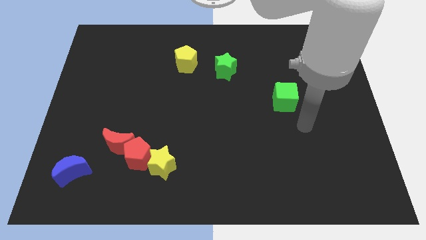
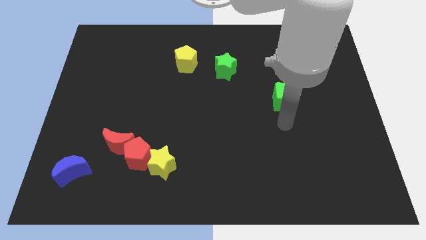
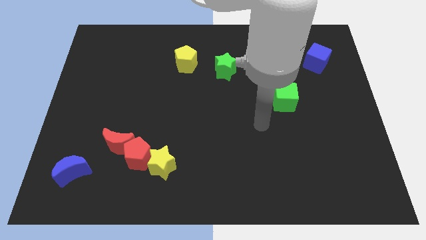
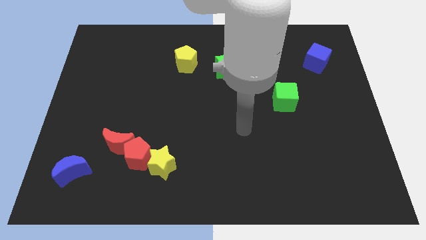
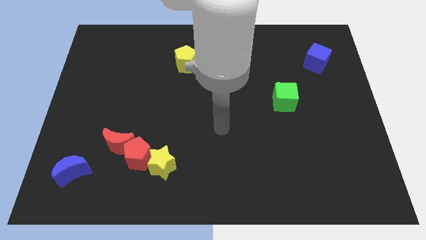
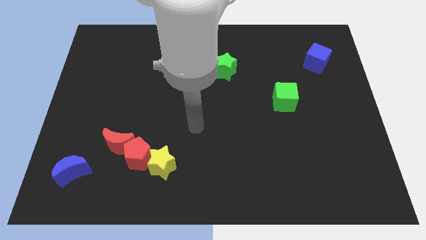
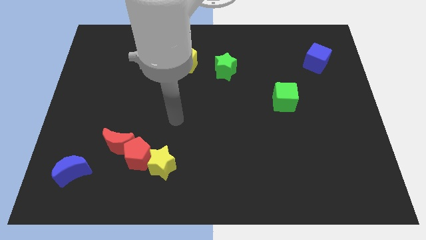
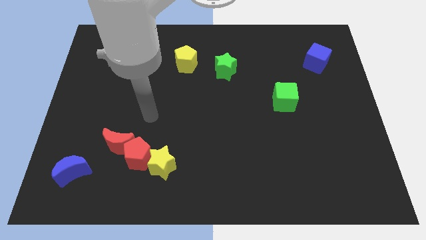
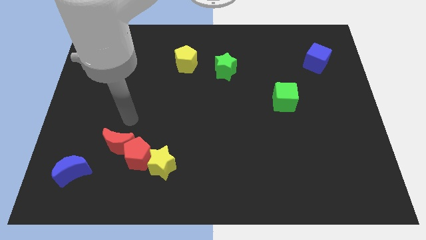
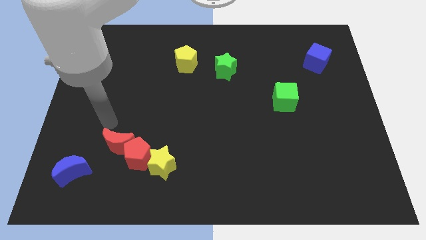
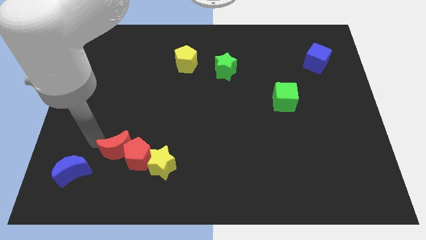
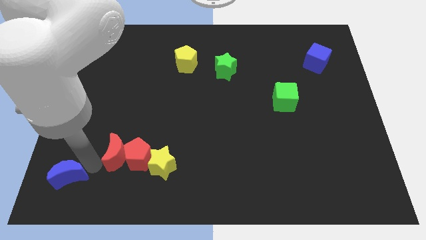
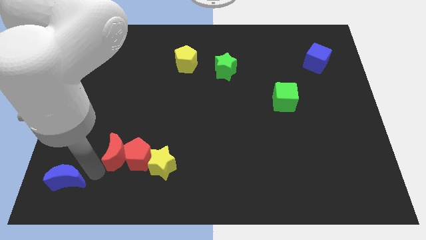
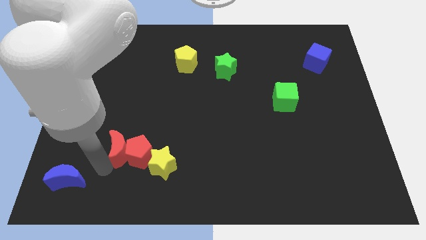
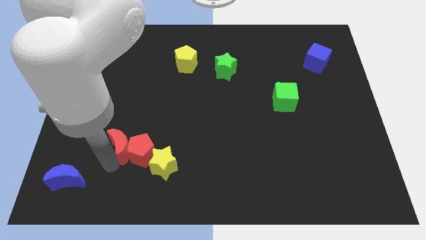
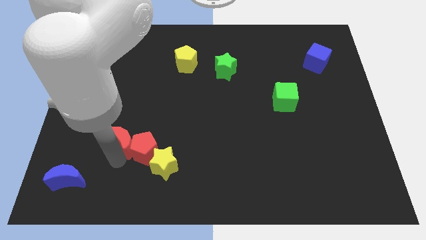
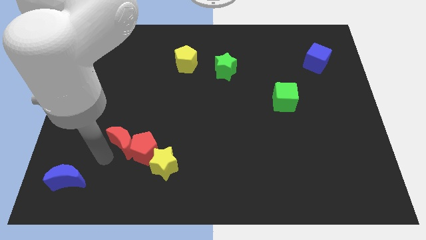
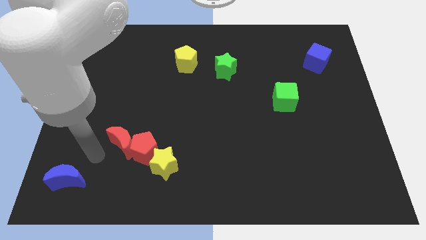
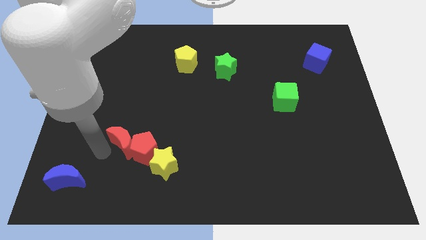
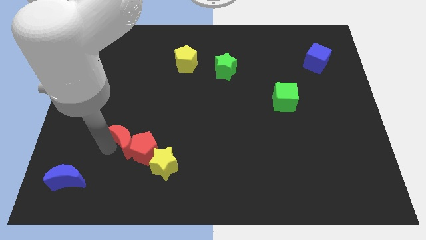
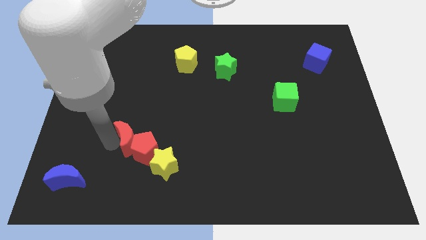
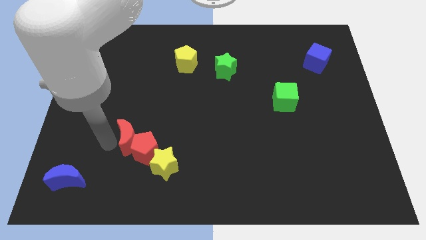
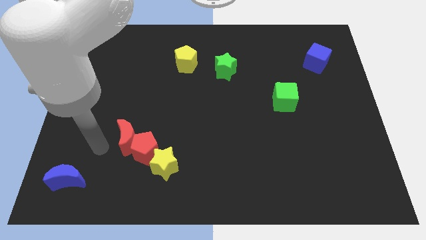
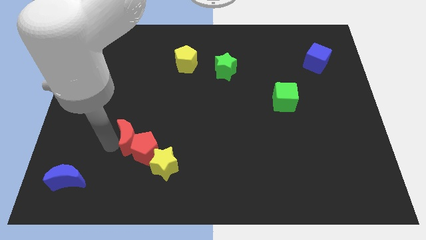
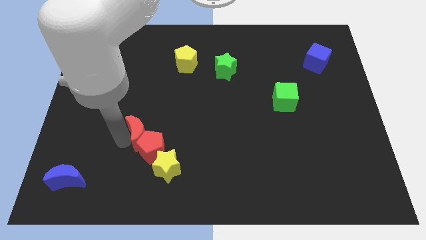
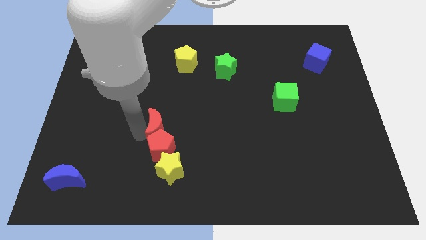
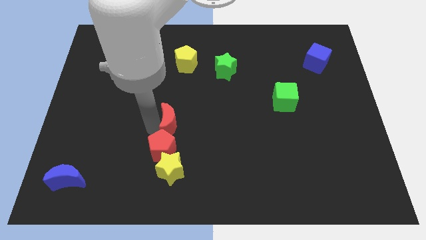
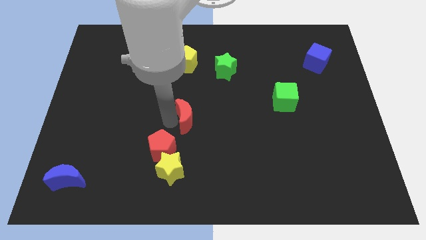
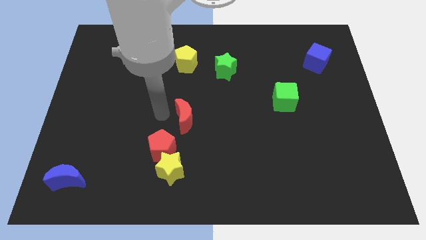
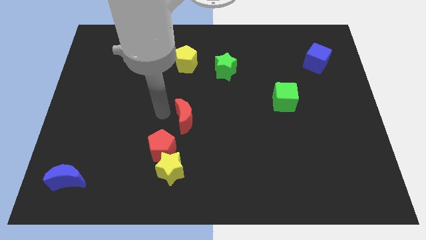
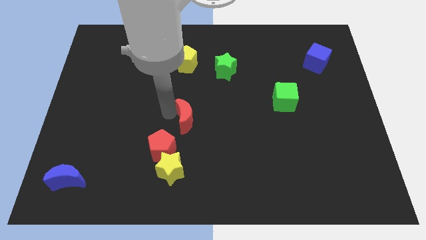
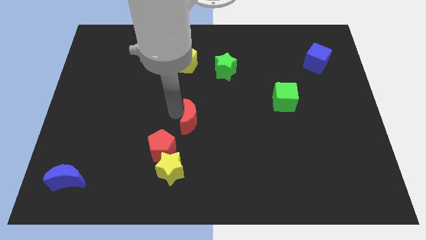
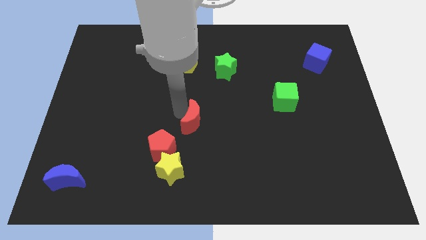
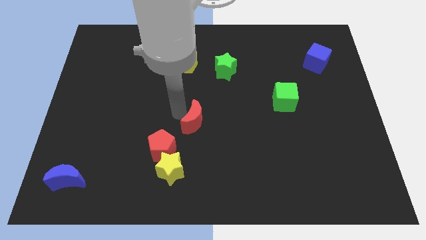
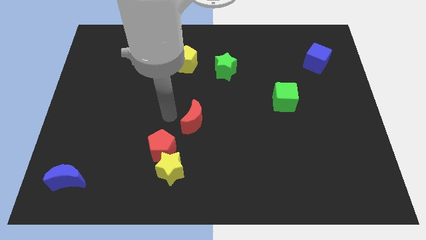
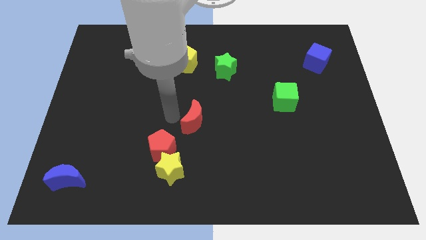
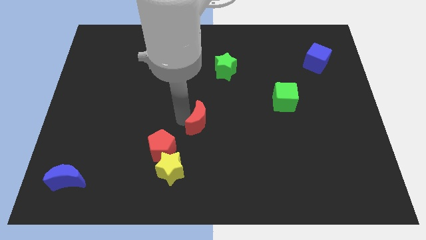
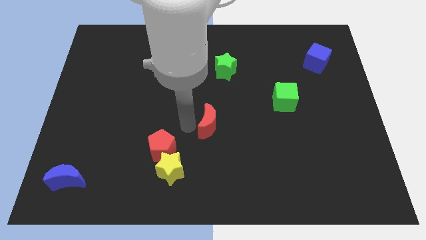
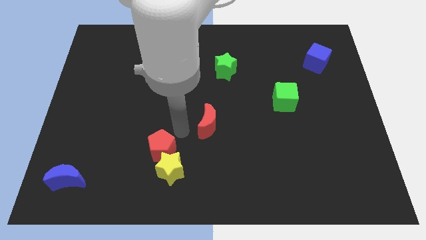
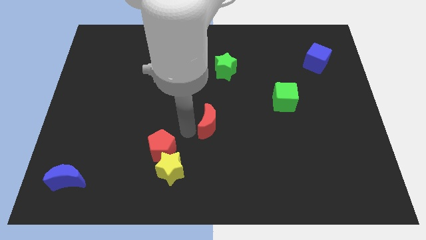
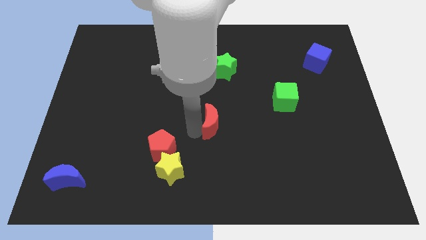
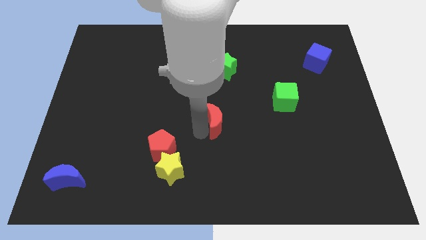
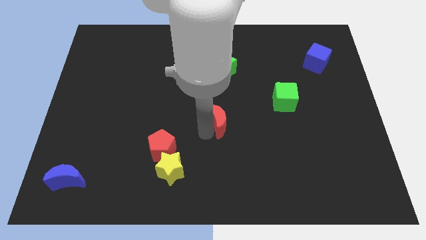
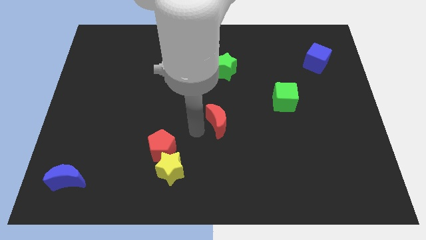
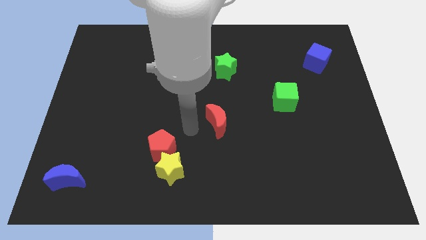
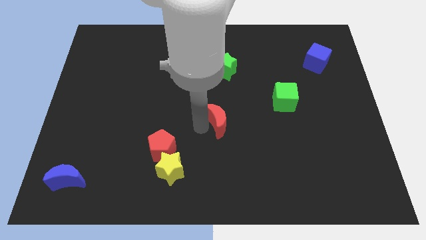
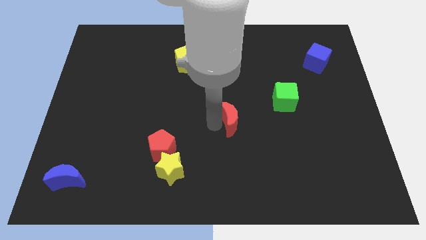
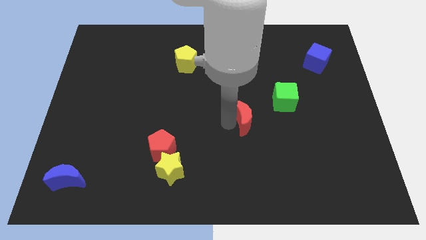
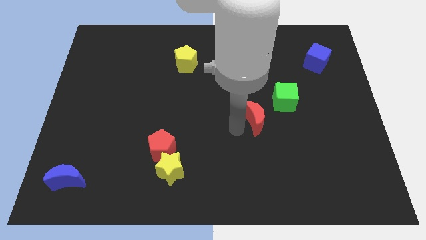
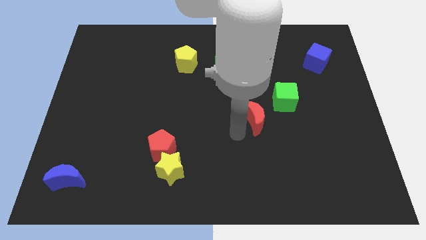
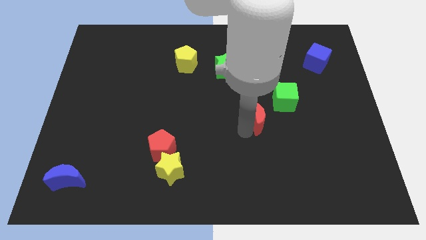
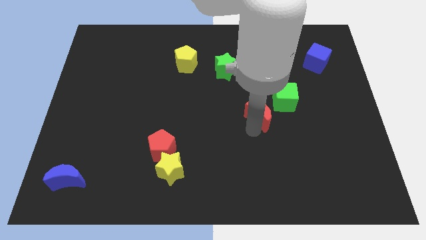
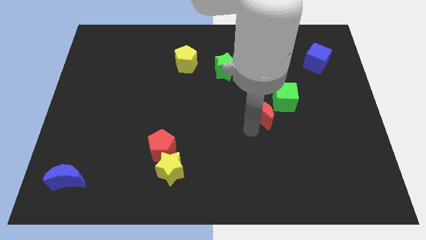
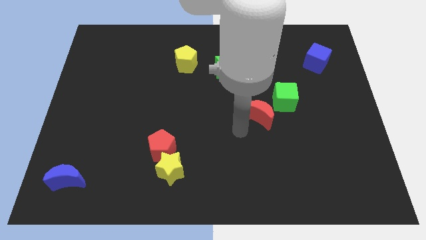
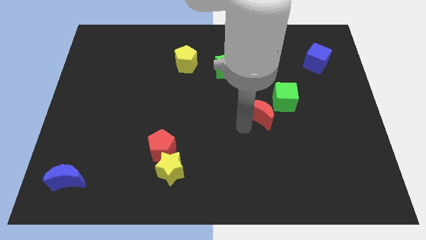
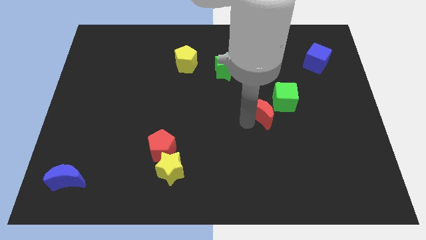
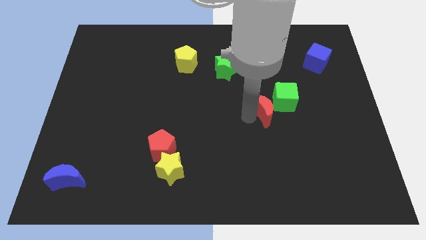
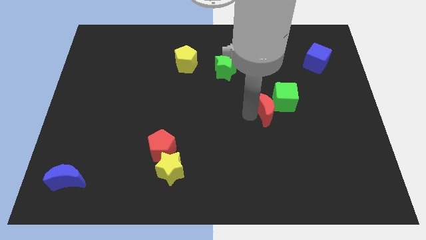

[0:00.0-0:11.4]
push the red moon to the green cube

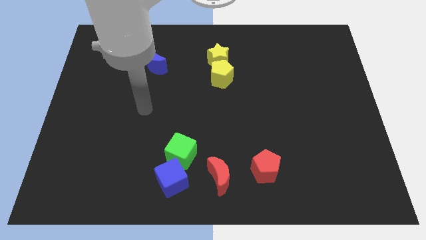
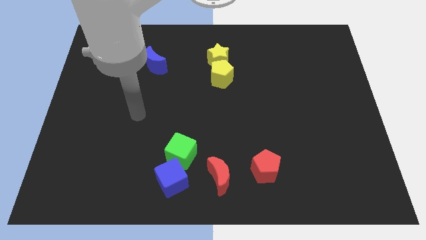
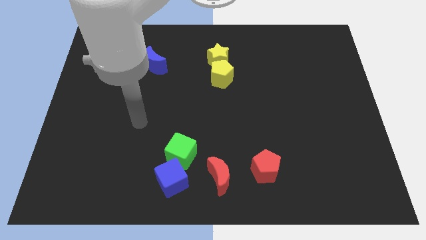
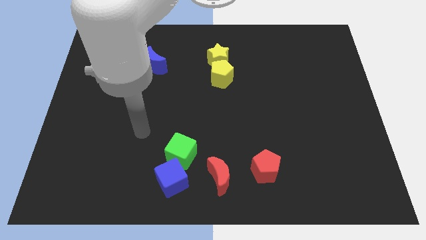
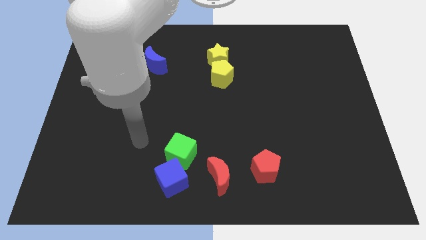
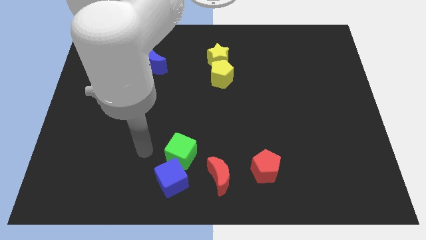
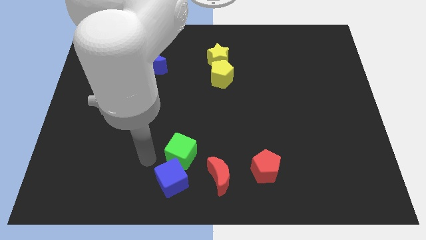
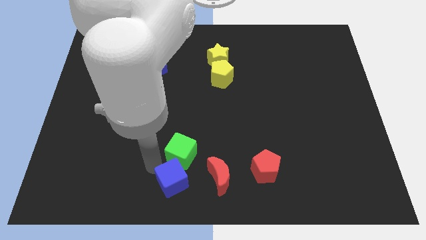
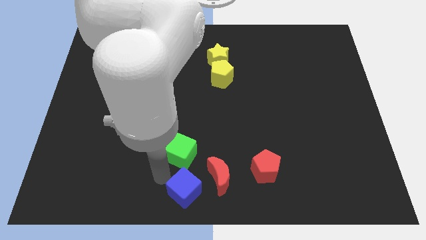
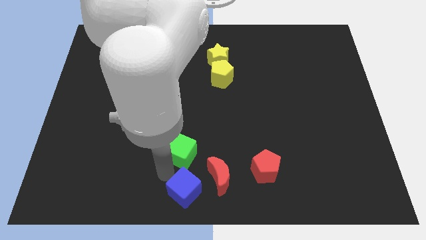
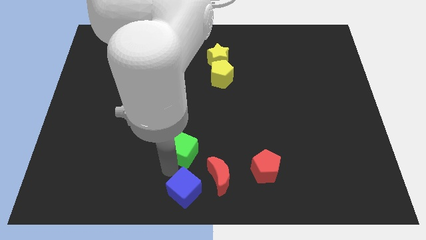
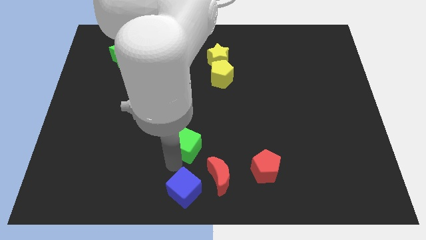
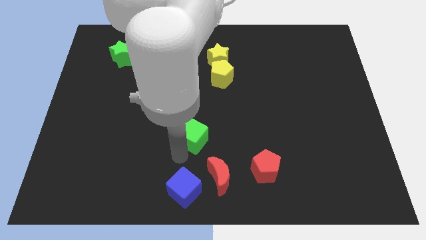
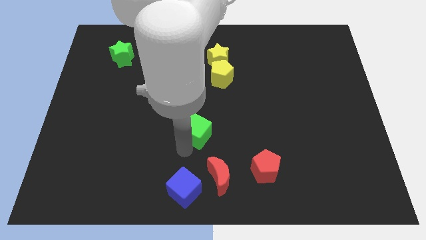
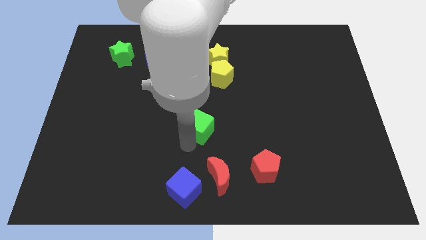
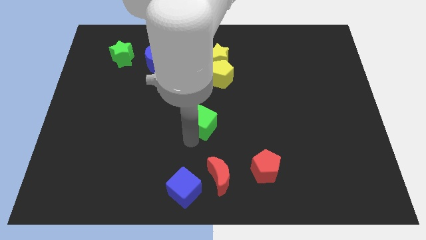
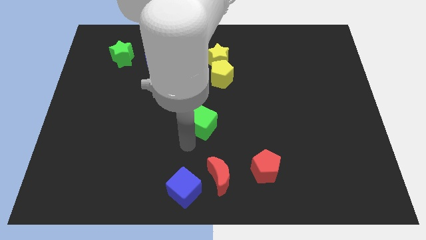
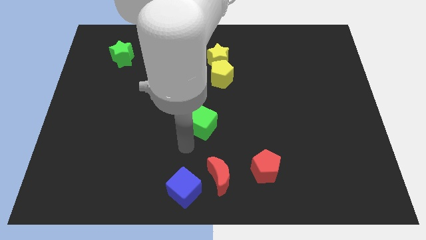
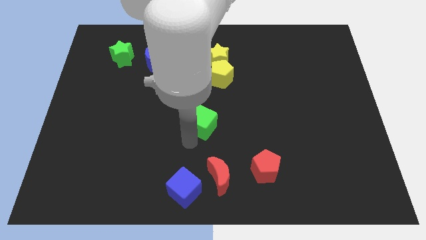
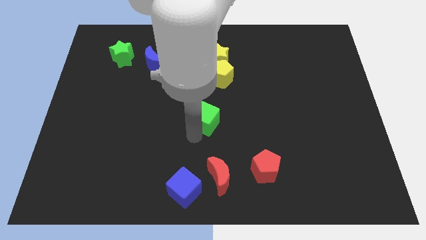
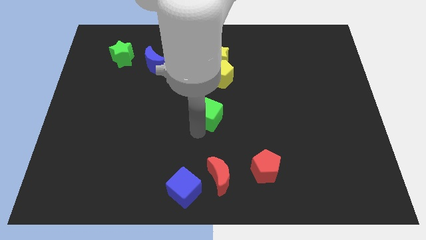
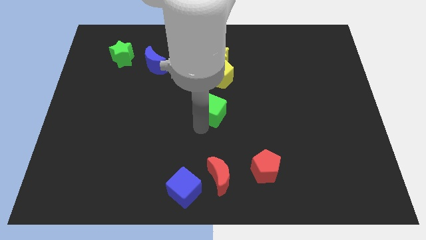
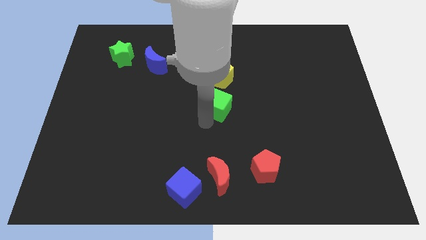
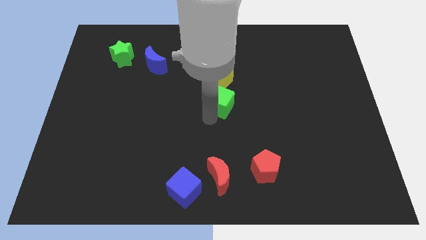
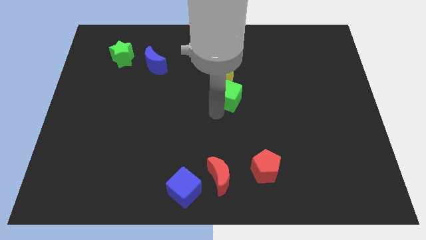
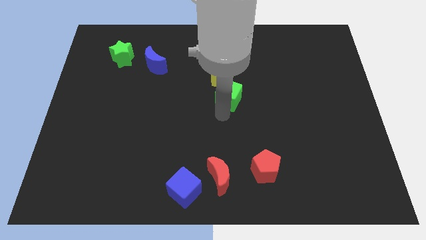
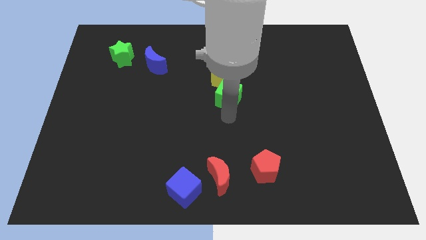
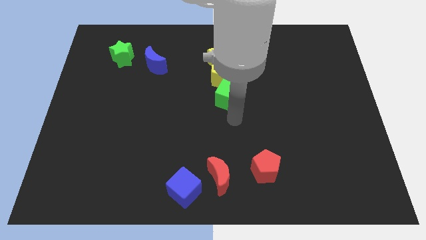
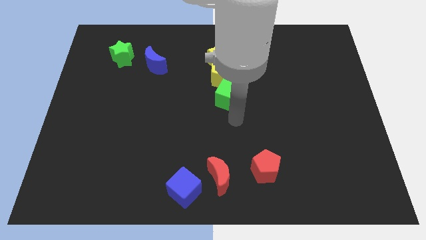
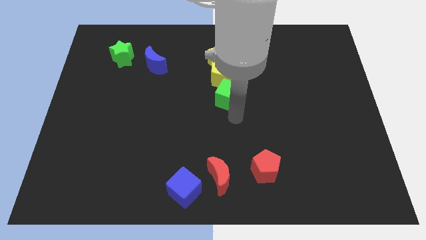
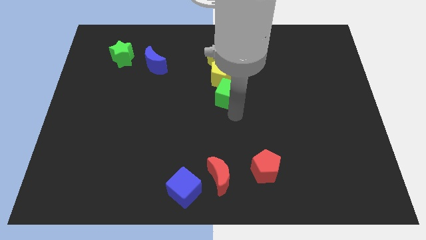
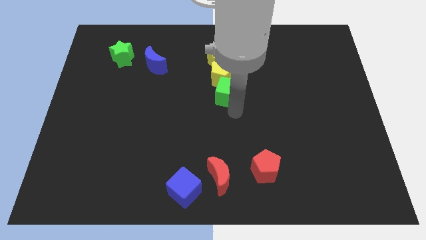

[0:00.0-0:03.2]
move the green cube close to the yellow pentagon
